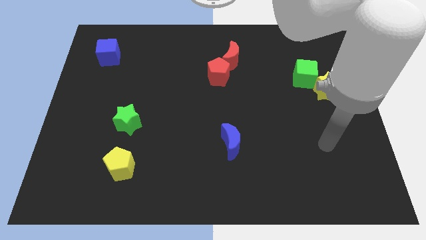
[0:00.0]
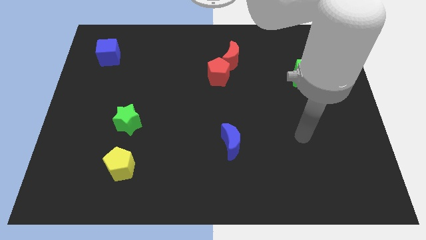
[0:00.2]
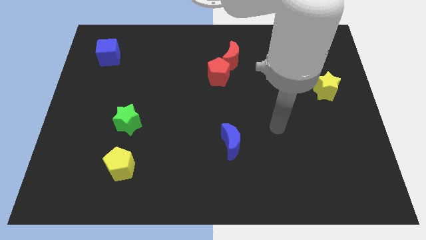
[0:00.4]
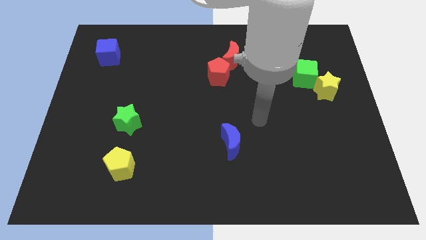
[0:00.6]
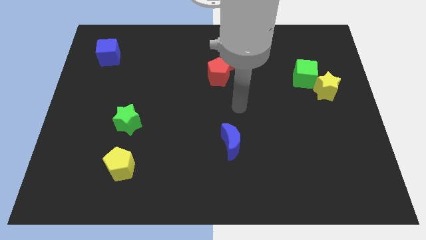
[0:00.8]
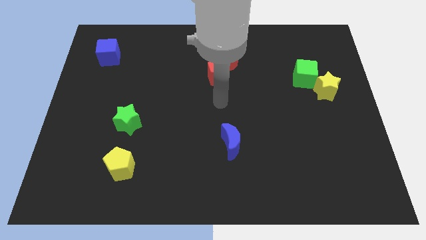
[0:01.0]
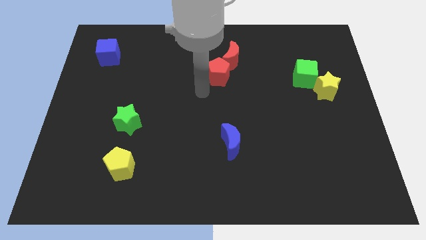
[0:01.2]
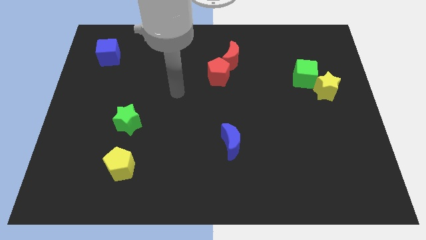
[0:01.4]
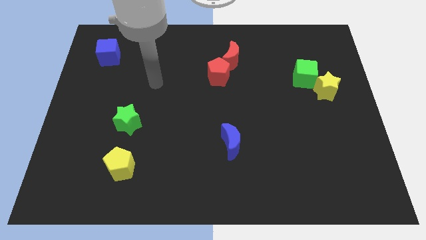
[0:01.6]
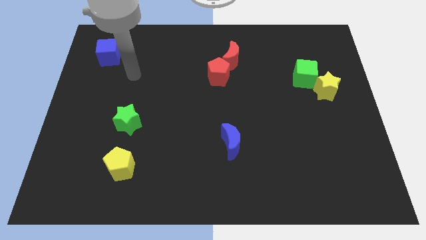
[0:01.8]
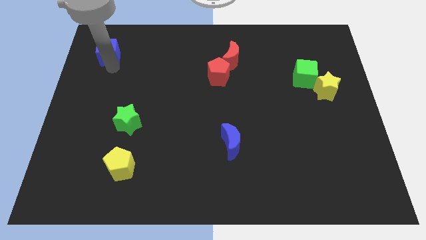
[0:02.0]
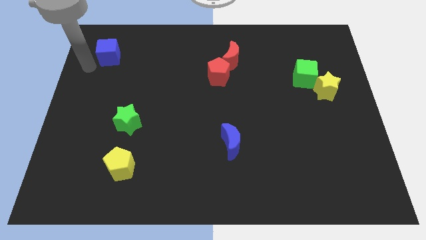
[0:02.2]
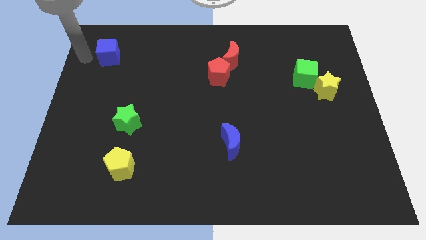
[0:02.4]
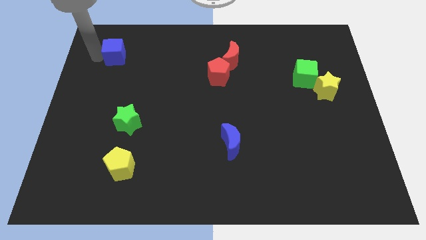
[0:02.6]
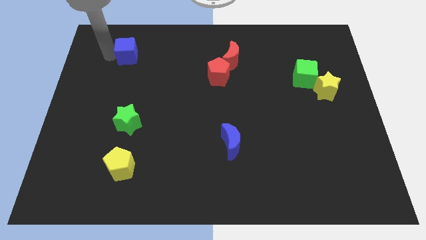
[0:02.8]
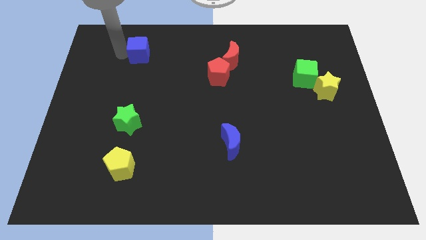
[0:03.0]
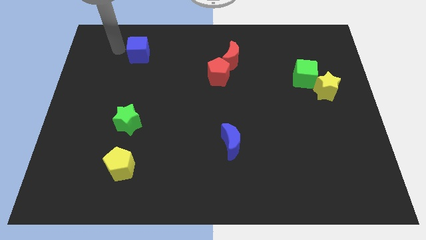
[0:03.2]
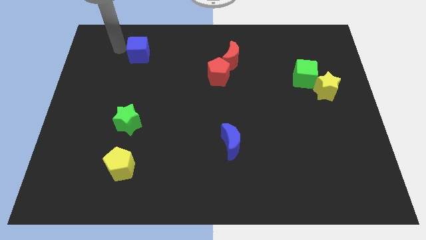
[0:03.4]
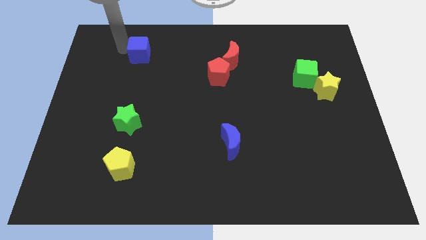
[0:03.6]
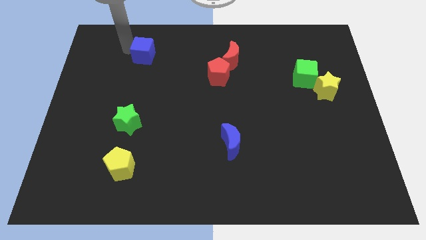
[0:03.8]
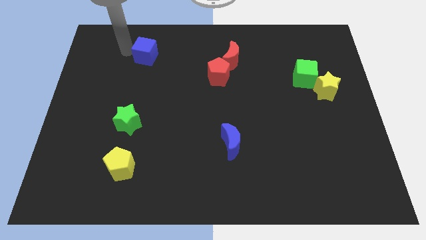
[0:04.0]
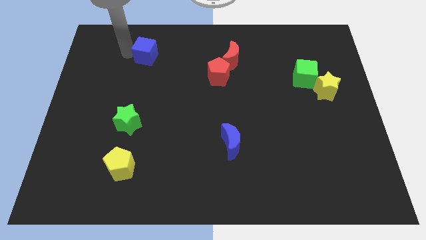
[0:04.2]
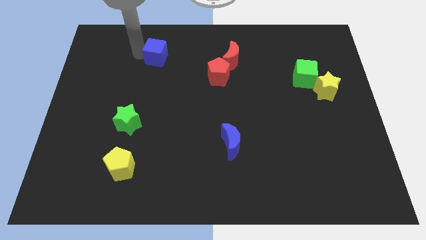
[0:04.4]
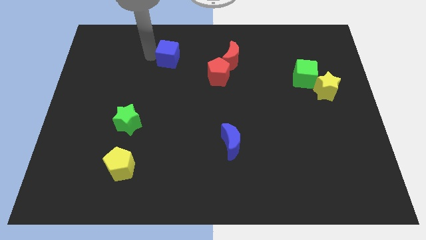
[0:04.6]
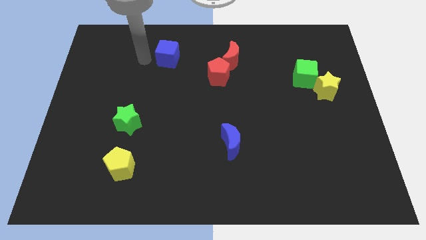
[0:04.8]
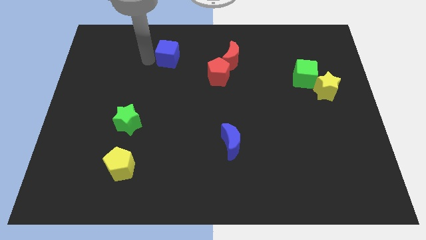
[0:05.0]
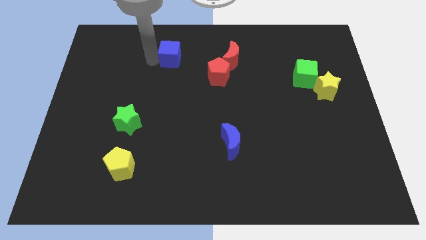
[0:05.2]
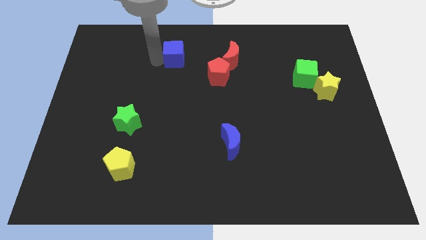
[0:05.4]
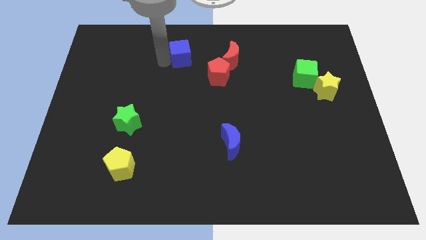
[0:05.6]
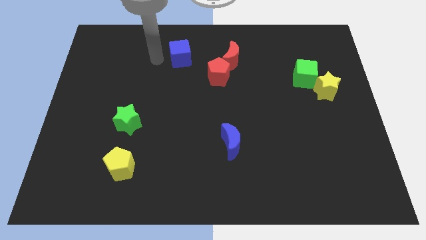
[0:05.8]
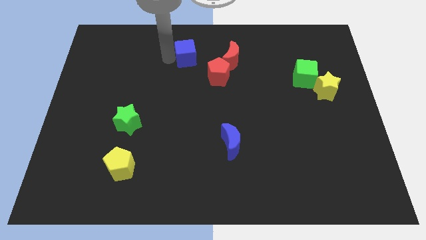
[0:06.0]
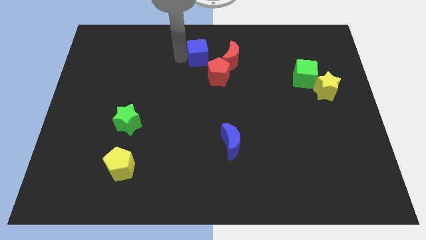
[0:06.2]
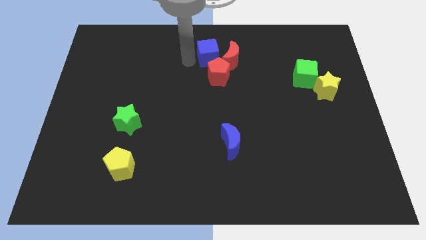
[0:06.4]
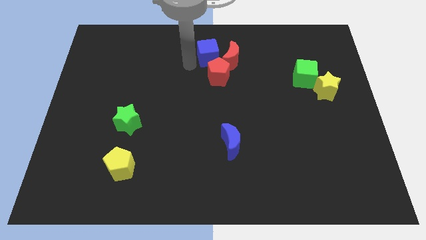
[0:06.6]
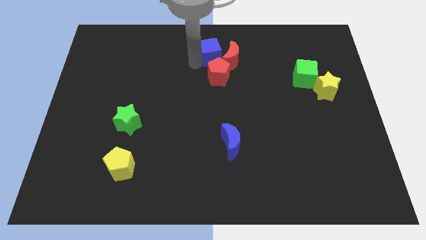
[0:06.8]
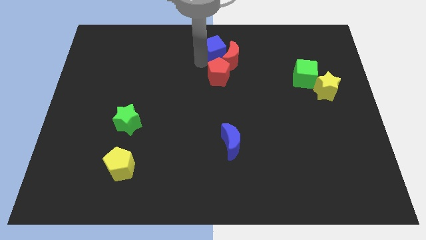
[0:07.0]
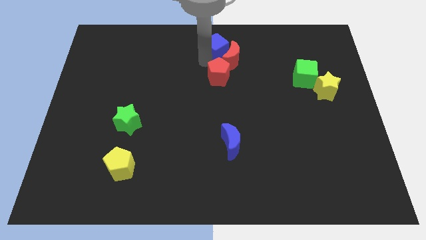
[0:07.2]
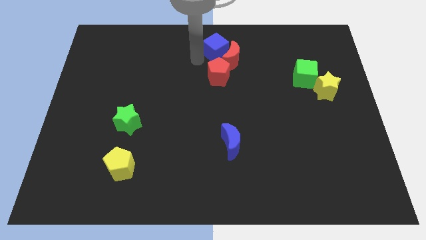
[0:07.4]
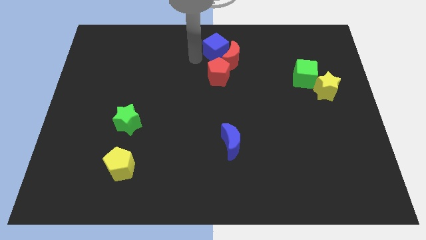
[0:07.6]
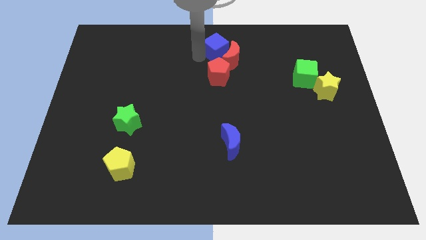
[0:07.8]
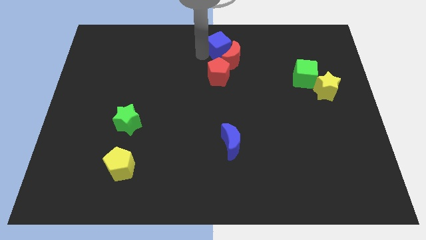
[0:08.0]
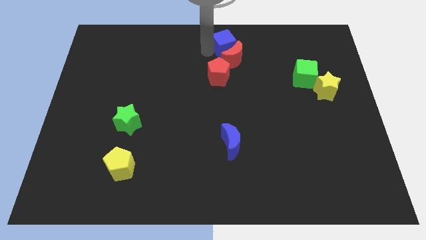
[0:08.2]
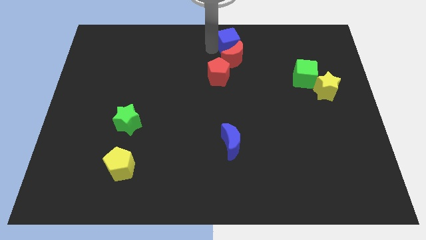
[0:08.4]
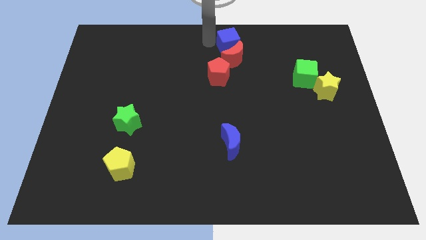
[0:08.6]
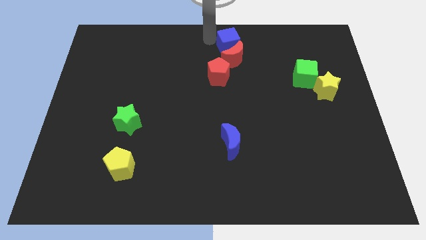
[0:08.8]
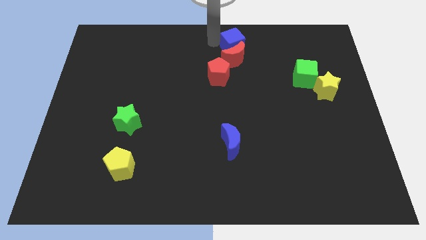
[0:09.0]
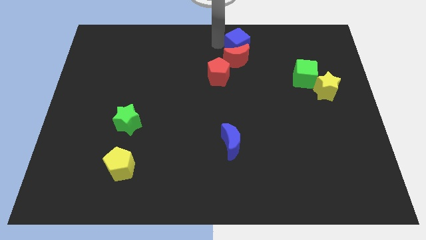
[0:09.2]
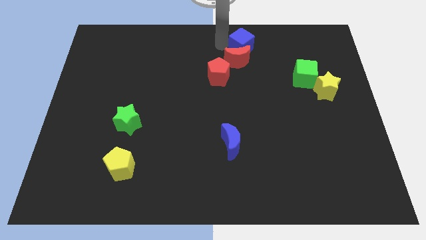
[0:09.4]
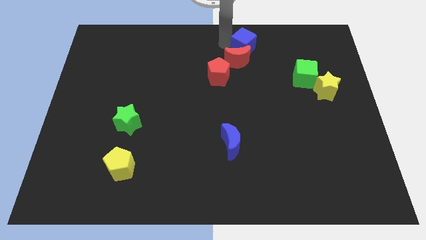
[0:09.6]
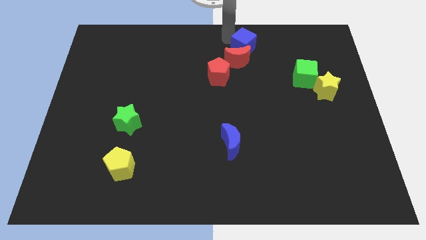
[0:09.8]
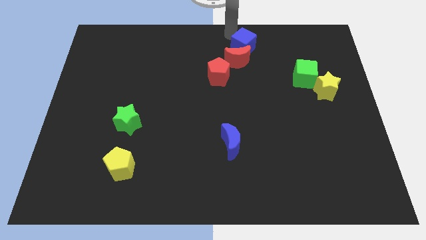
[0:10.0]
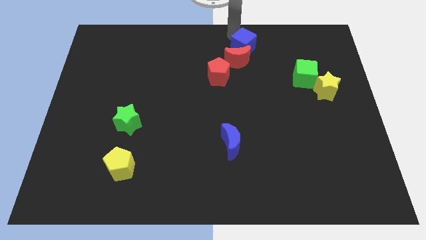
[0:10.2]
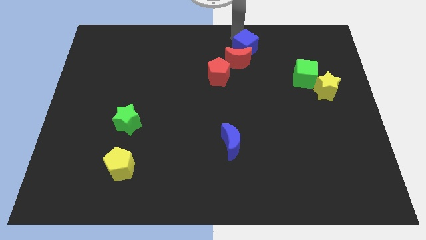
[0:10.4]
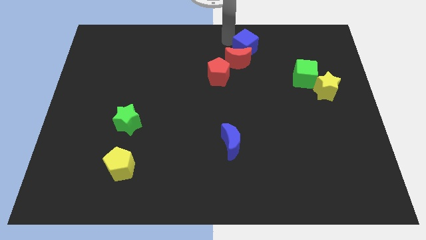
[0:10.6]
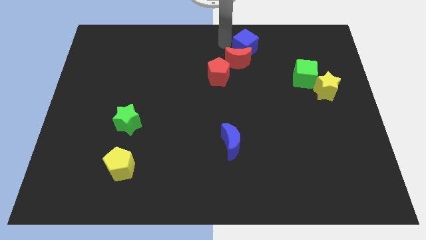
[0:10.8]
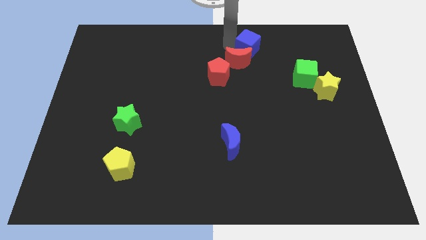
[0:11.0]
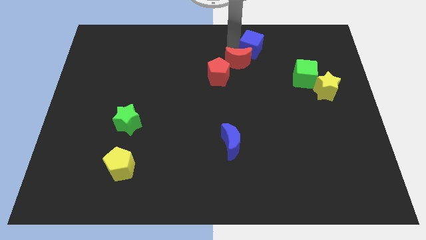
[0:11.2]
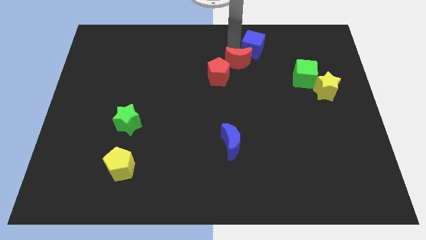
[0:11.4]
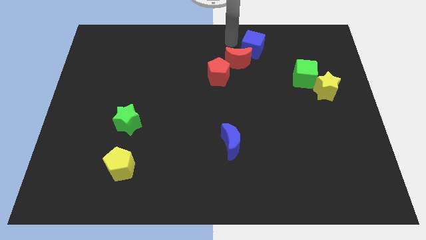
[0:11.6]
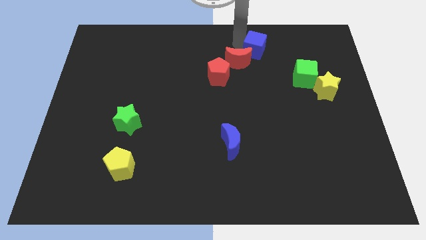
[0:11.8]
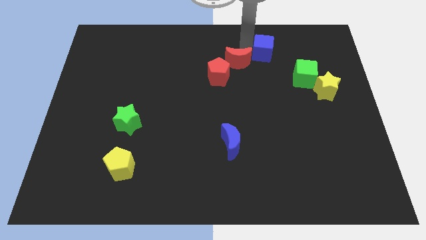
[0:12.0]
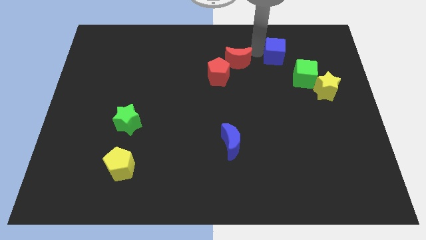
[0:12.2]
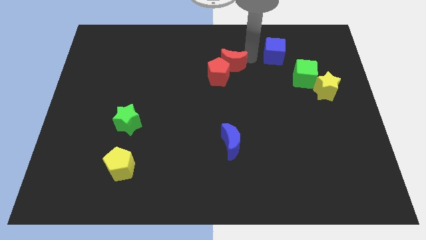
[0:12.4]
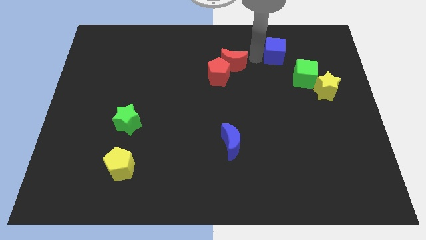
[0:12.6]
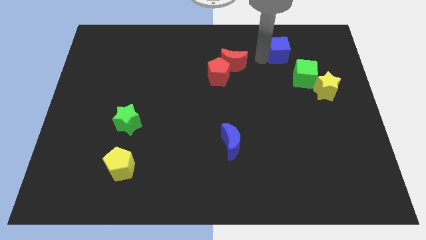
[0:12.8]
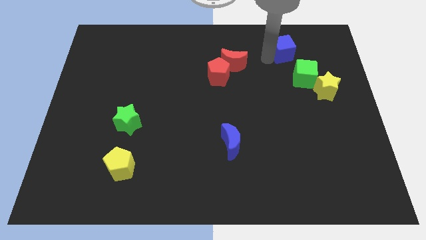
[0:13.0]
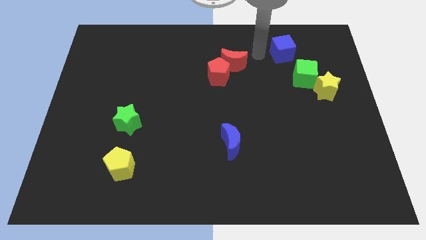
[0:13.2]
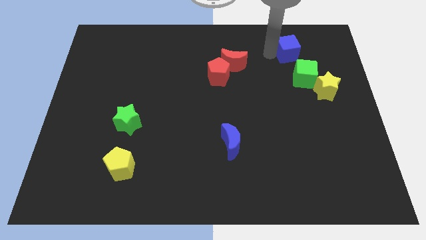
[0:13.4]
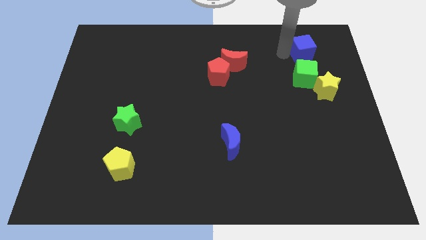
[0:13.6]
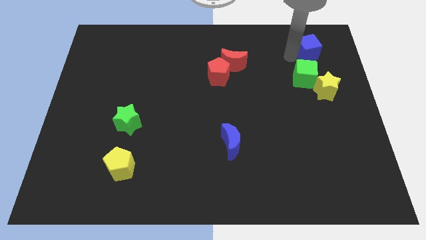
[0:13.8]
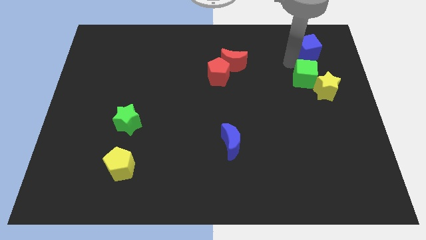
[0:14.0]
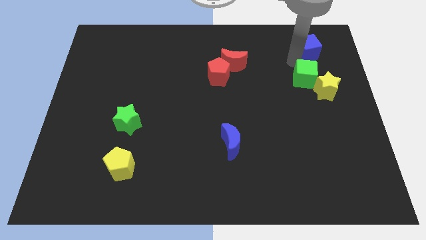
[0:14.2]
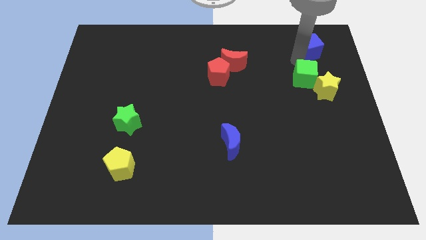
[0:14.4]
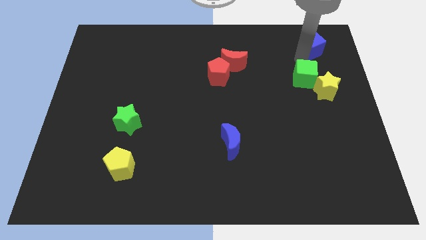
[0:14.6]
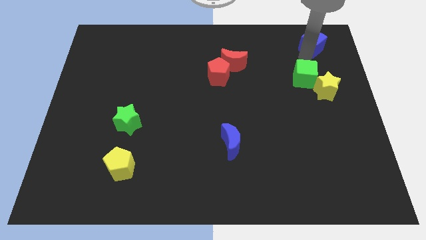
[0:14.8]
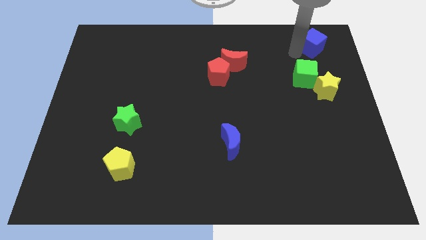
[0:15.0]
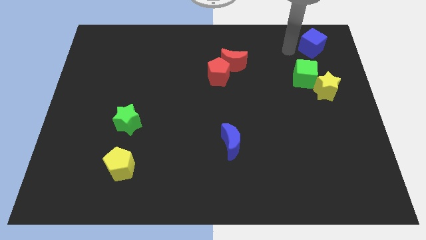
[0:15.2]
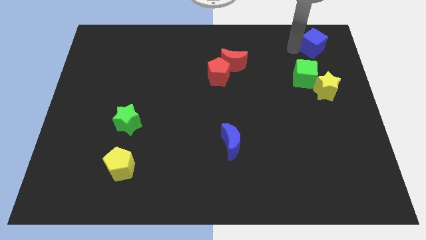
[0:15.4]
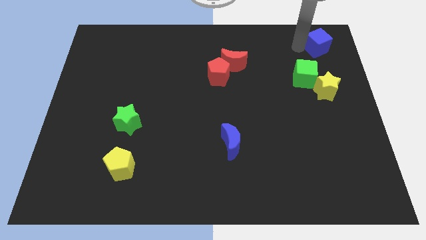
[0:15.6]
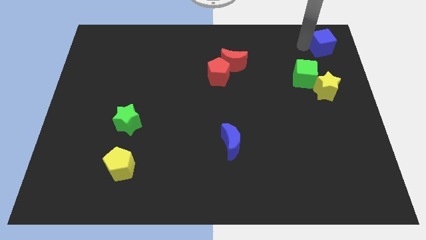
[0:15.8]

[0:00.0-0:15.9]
push the blue cube to the top right corner
